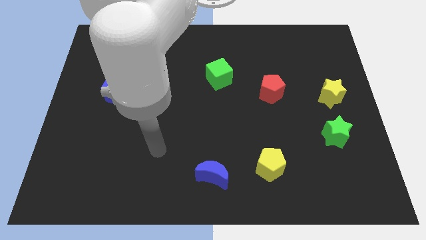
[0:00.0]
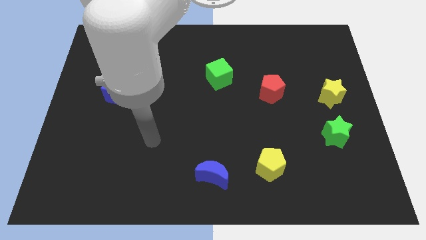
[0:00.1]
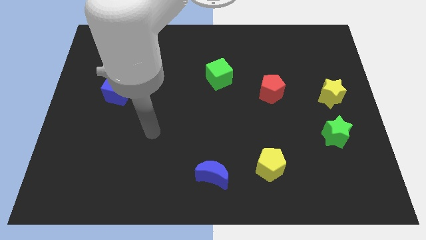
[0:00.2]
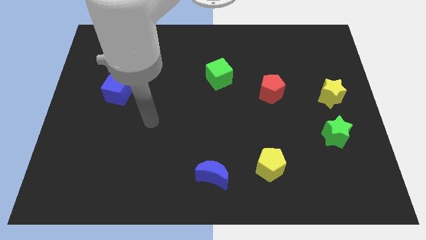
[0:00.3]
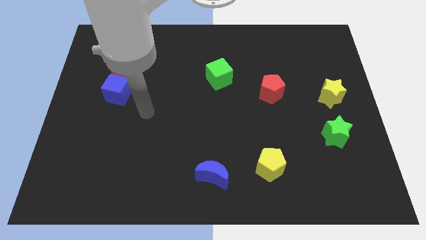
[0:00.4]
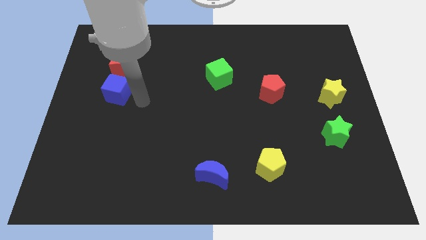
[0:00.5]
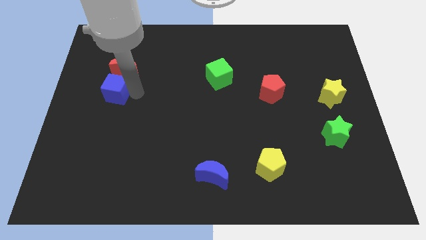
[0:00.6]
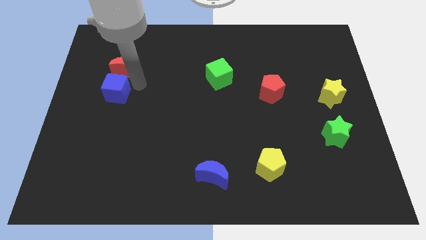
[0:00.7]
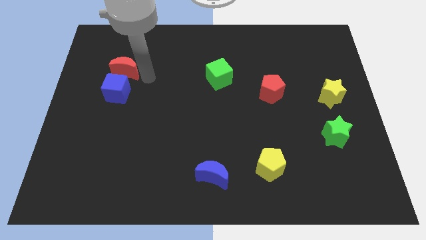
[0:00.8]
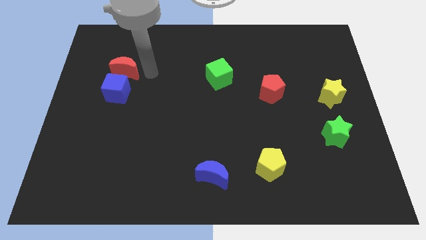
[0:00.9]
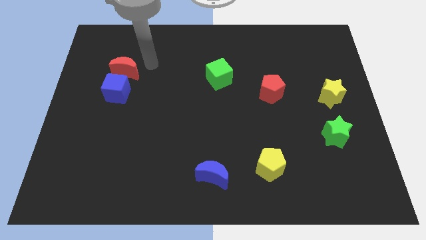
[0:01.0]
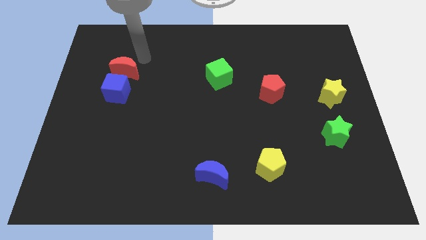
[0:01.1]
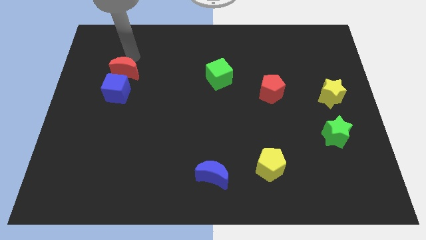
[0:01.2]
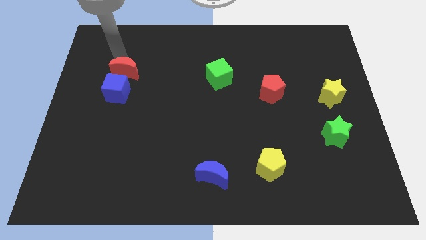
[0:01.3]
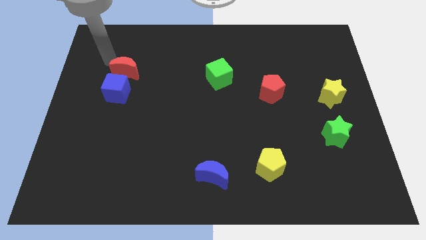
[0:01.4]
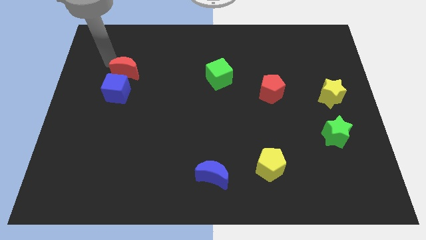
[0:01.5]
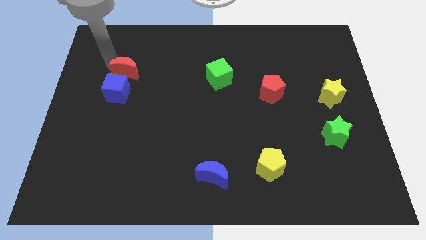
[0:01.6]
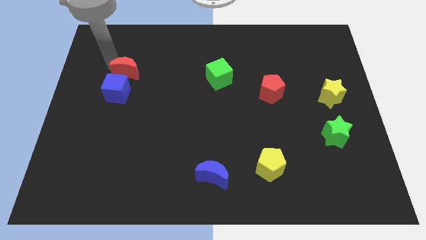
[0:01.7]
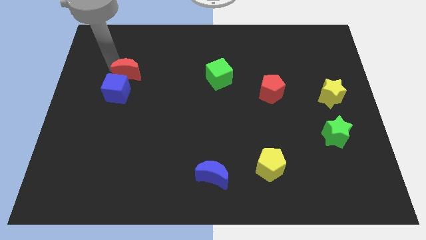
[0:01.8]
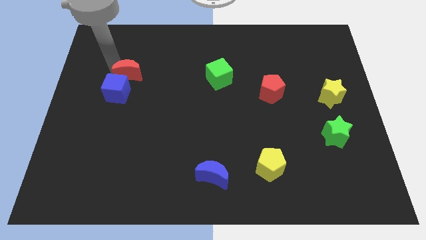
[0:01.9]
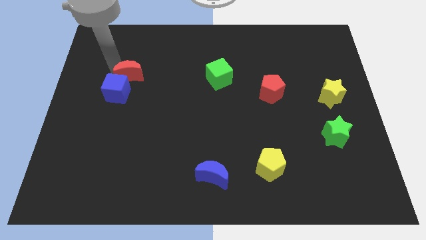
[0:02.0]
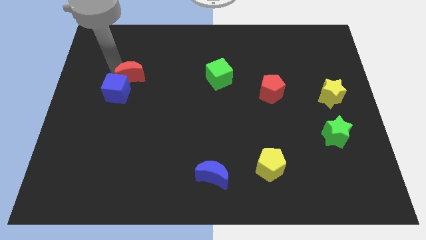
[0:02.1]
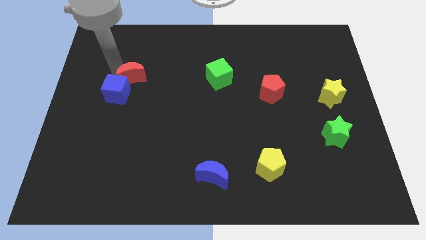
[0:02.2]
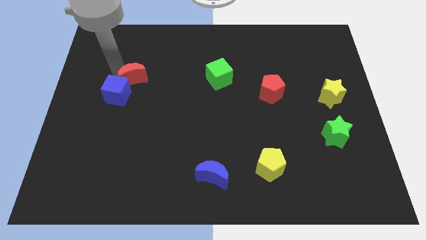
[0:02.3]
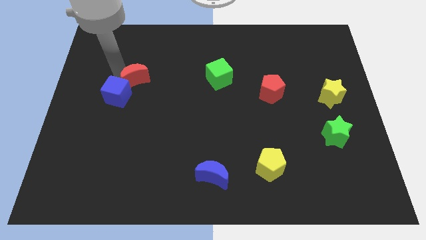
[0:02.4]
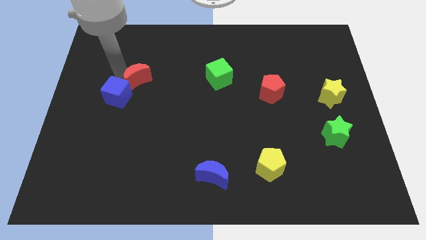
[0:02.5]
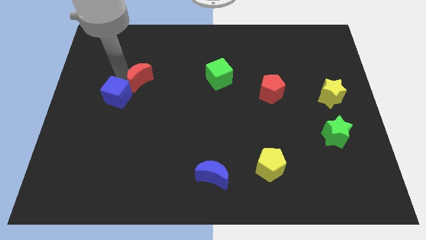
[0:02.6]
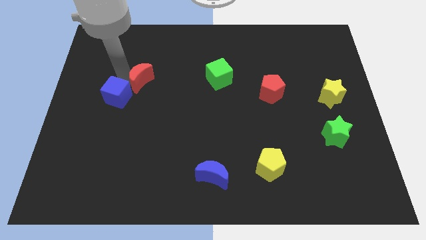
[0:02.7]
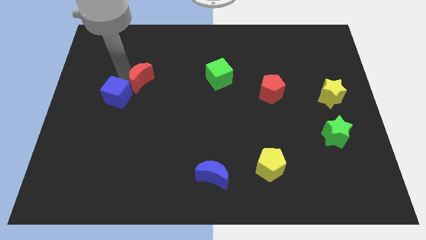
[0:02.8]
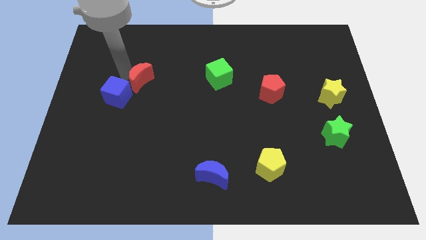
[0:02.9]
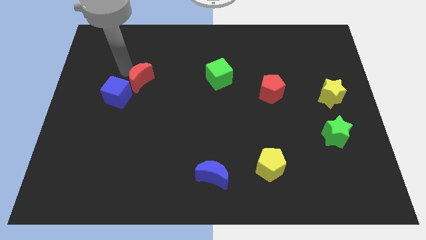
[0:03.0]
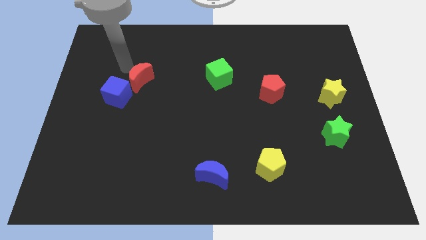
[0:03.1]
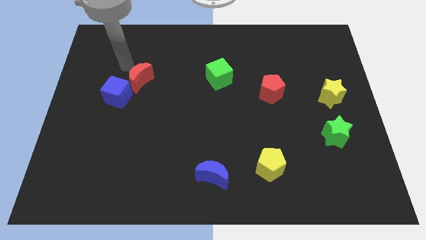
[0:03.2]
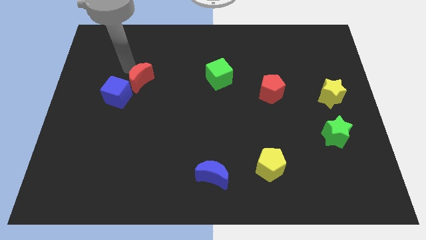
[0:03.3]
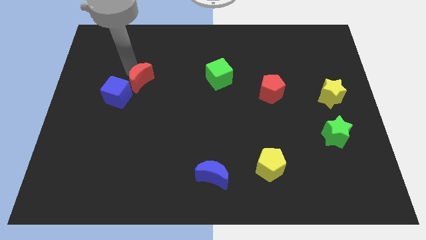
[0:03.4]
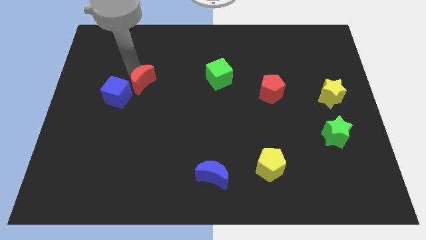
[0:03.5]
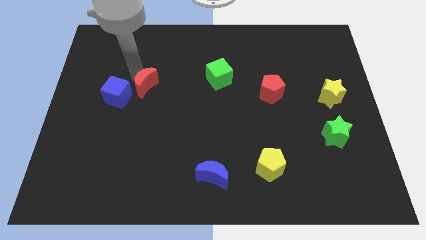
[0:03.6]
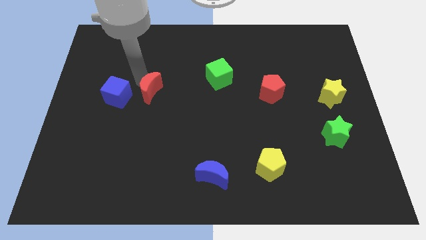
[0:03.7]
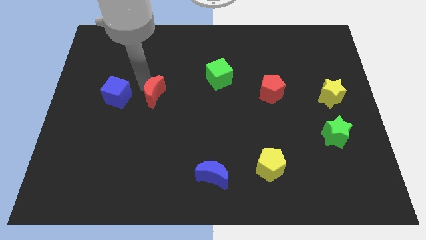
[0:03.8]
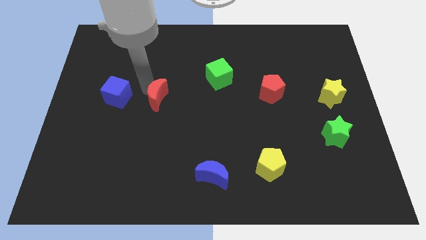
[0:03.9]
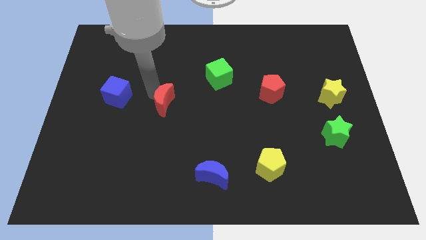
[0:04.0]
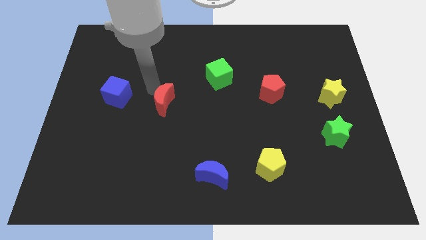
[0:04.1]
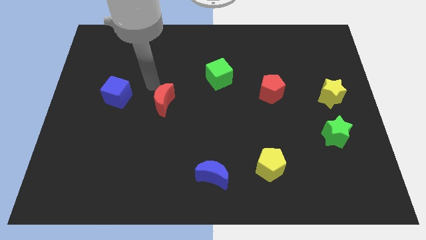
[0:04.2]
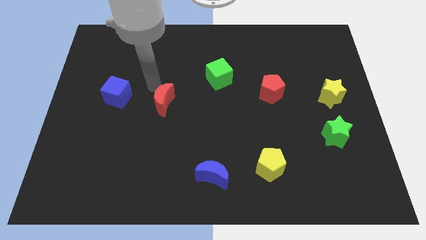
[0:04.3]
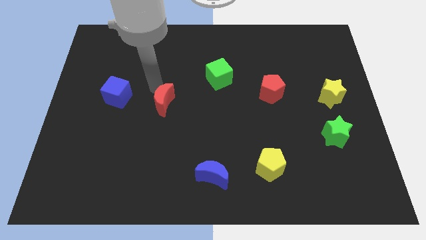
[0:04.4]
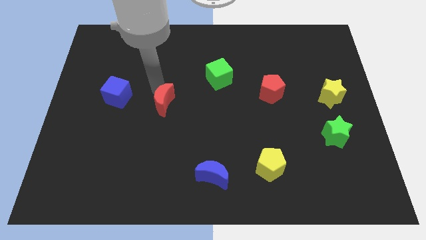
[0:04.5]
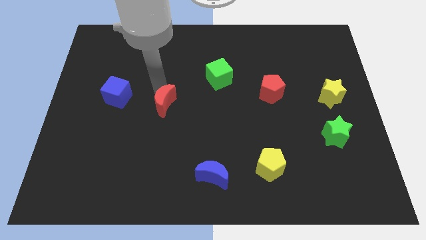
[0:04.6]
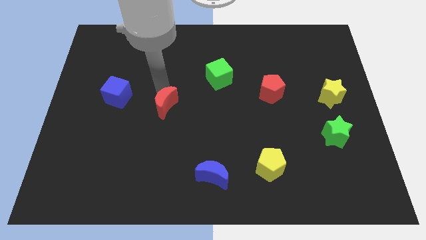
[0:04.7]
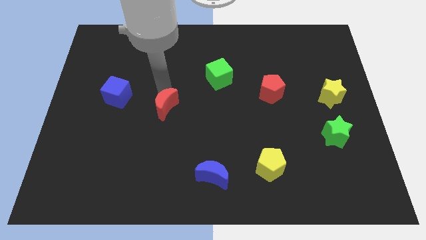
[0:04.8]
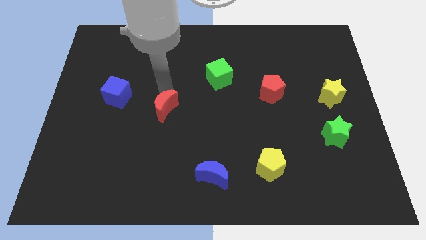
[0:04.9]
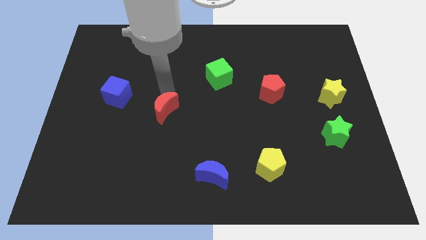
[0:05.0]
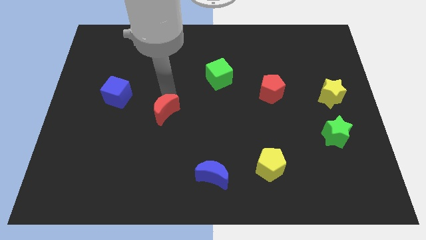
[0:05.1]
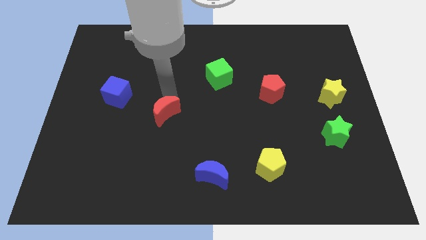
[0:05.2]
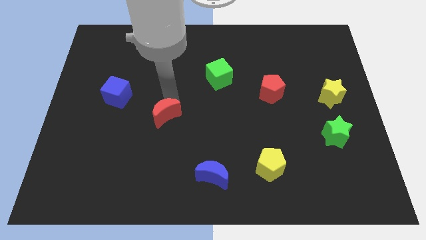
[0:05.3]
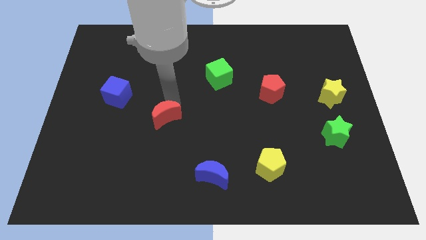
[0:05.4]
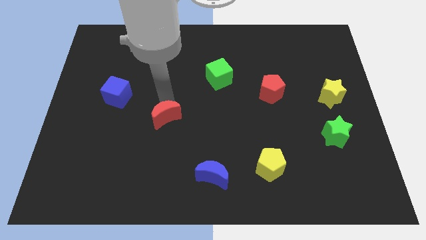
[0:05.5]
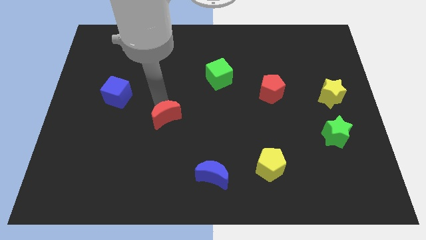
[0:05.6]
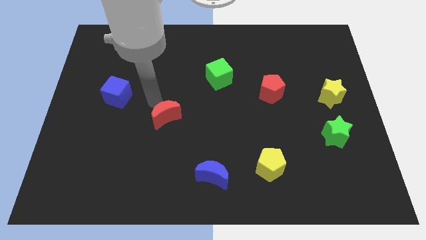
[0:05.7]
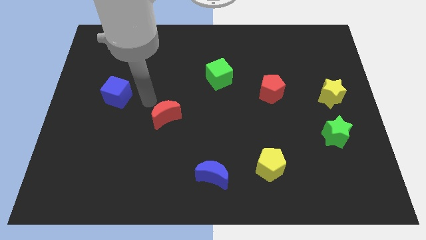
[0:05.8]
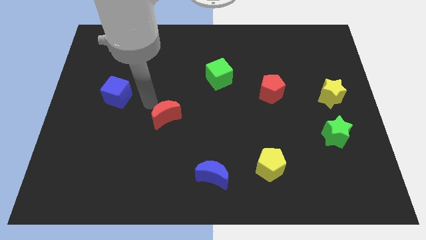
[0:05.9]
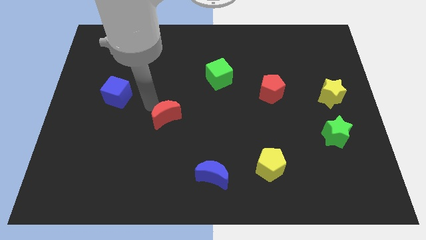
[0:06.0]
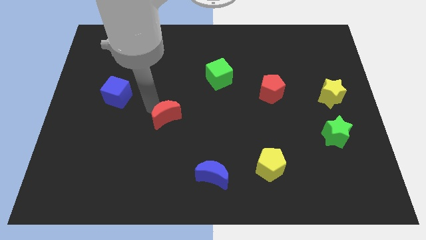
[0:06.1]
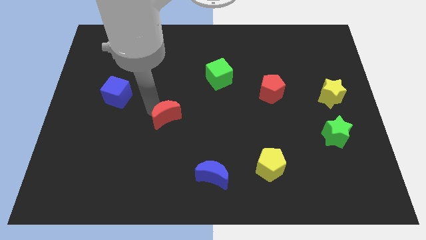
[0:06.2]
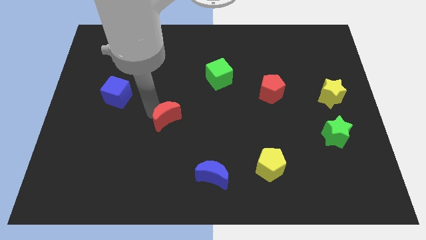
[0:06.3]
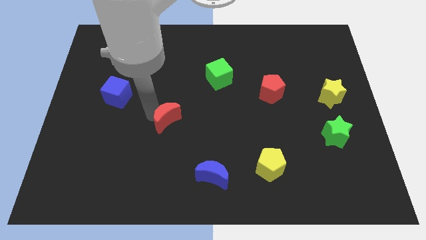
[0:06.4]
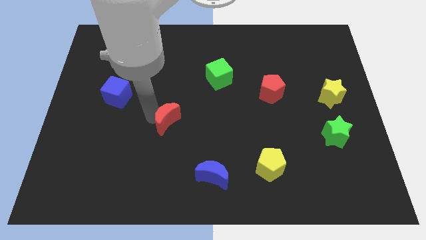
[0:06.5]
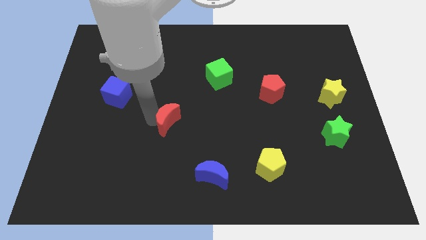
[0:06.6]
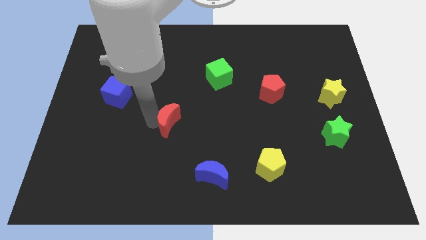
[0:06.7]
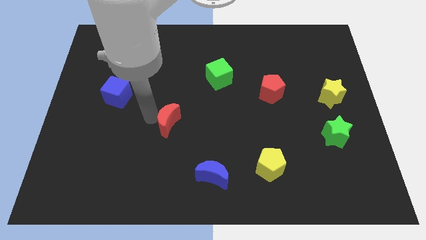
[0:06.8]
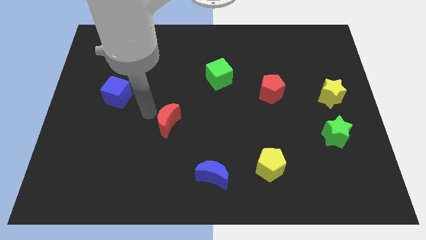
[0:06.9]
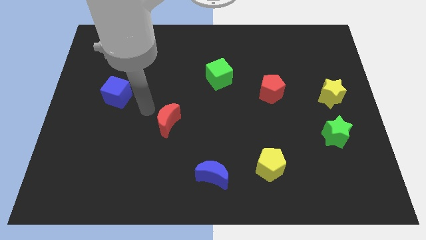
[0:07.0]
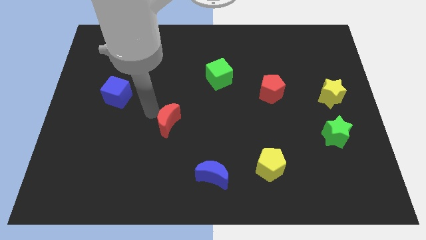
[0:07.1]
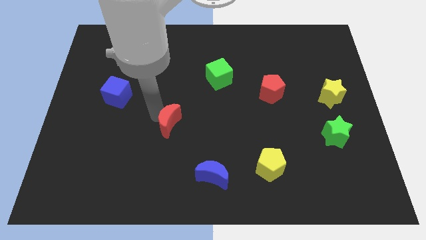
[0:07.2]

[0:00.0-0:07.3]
push the red moon down and to the right

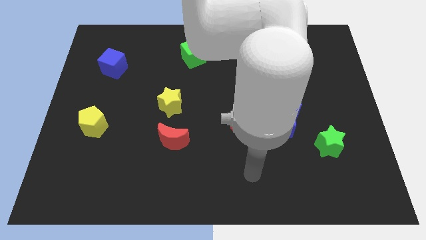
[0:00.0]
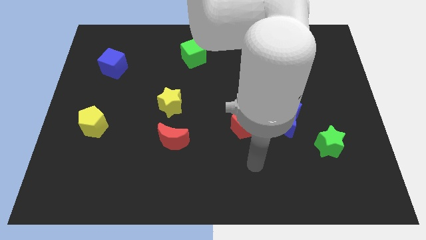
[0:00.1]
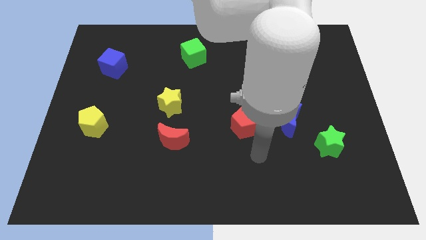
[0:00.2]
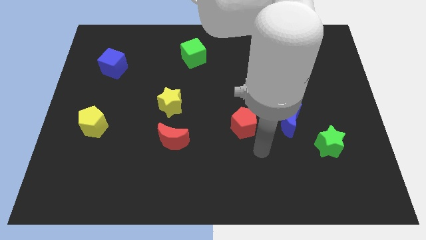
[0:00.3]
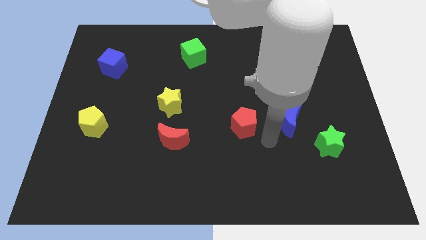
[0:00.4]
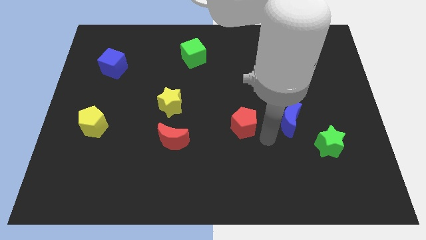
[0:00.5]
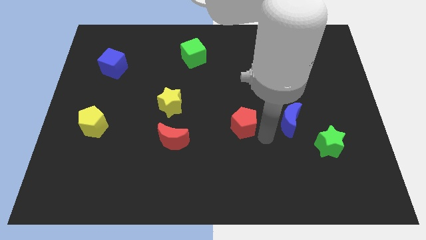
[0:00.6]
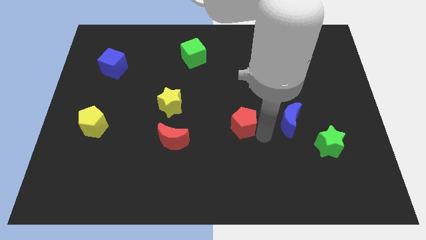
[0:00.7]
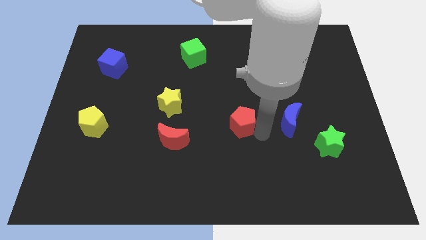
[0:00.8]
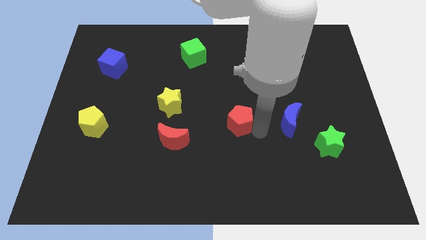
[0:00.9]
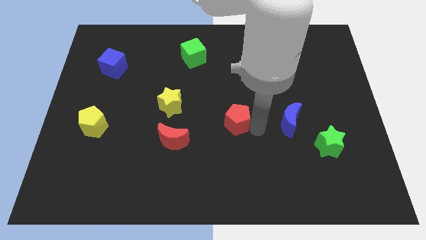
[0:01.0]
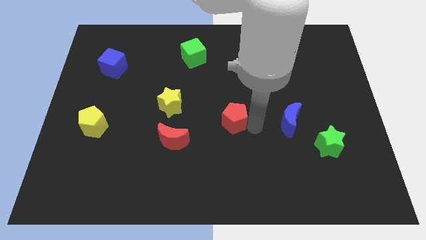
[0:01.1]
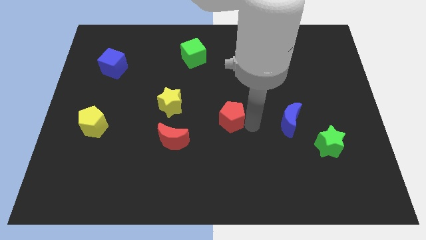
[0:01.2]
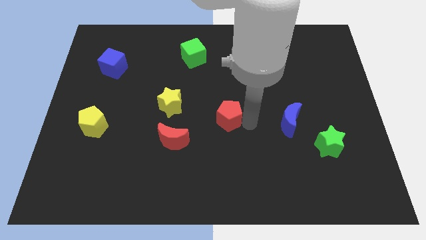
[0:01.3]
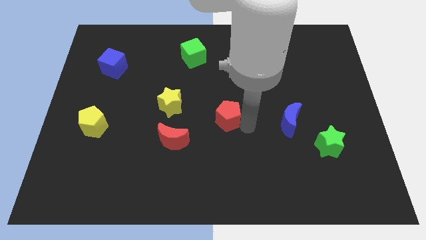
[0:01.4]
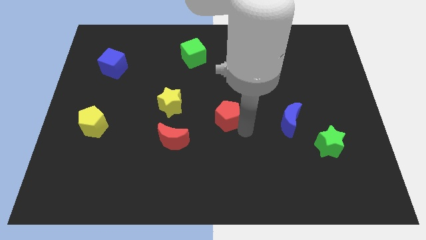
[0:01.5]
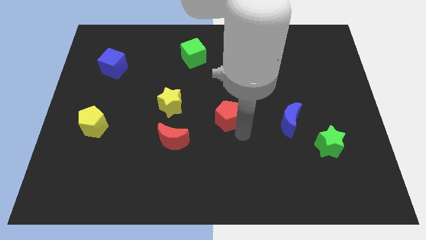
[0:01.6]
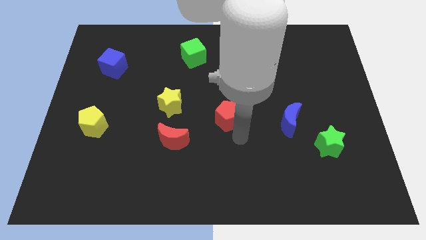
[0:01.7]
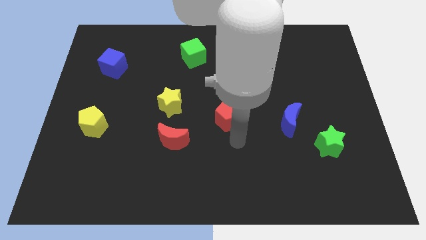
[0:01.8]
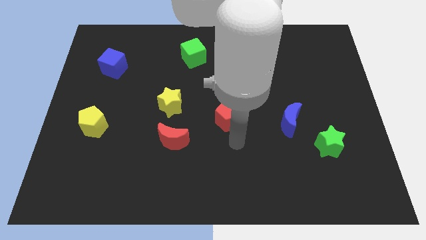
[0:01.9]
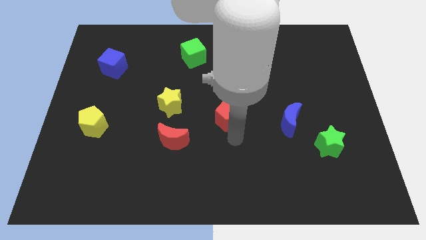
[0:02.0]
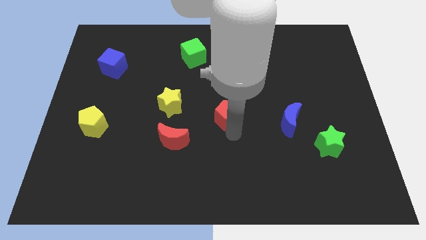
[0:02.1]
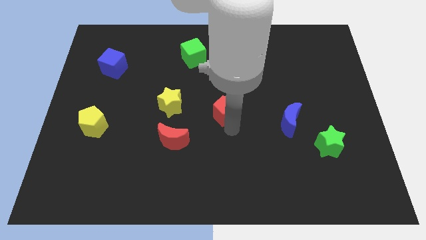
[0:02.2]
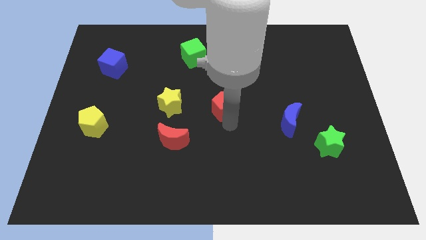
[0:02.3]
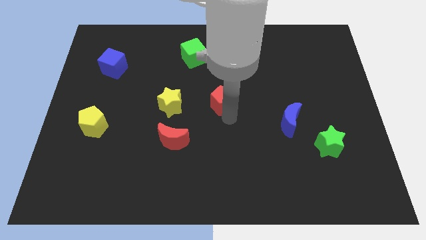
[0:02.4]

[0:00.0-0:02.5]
move the red pentagon somewhat up and left diagonally
